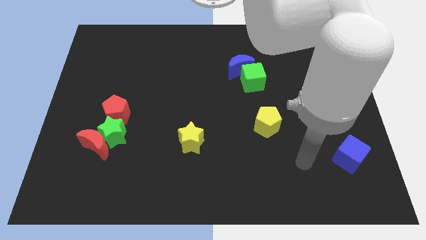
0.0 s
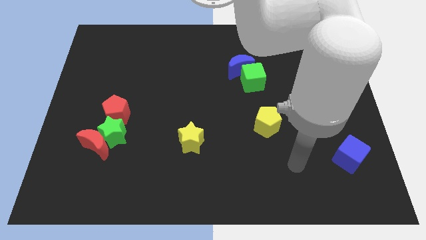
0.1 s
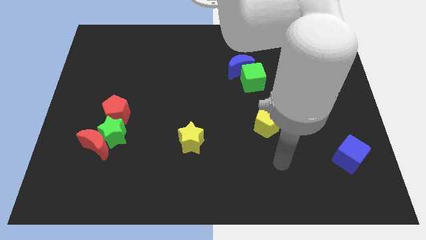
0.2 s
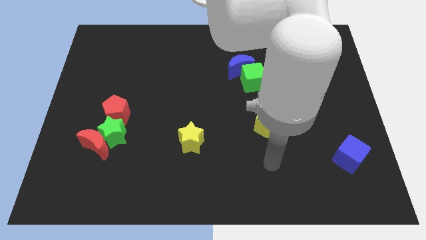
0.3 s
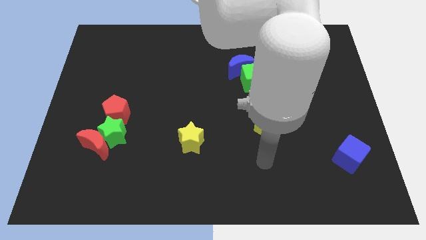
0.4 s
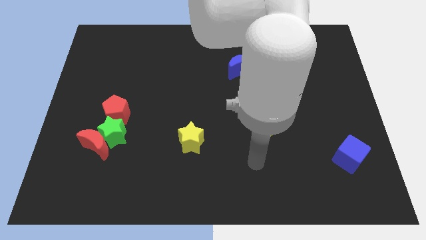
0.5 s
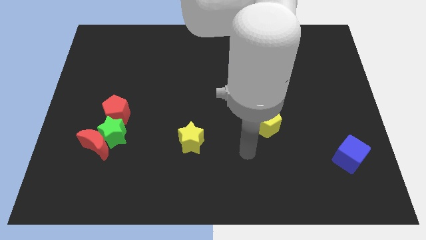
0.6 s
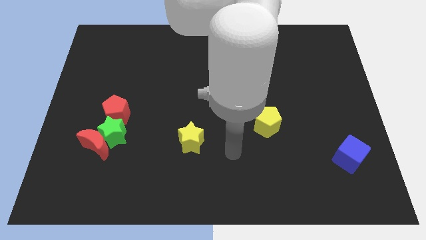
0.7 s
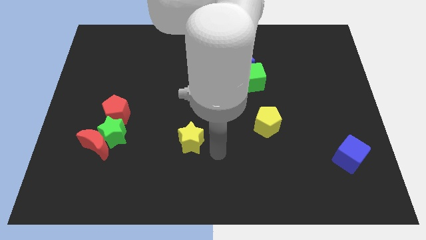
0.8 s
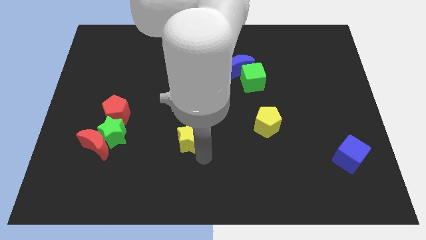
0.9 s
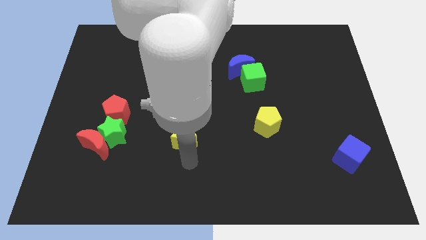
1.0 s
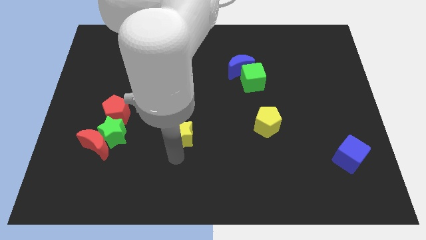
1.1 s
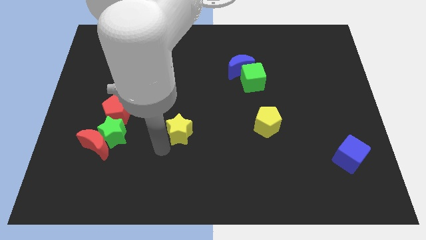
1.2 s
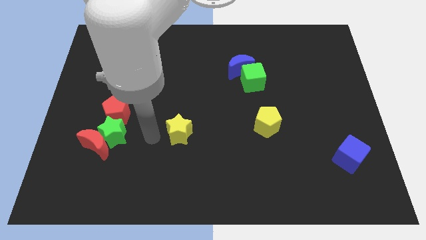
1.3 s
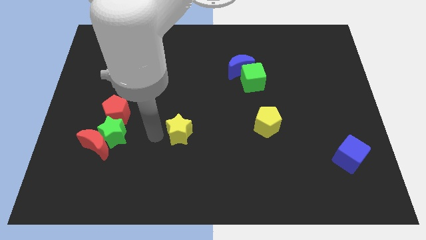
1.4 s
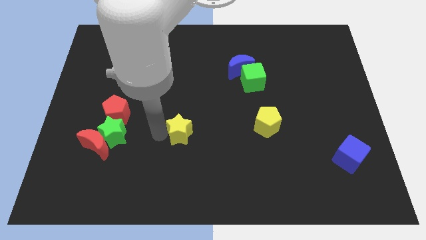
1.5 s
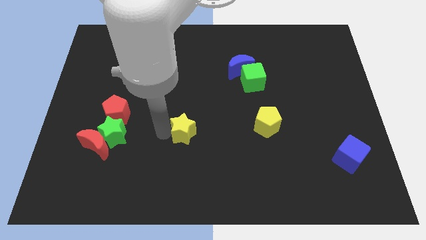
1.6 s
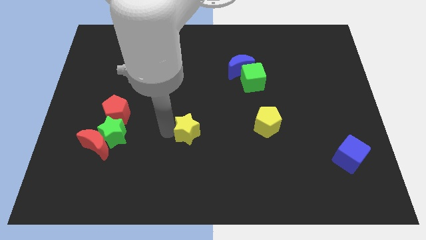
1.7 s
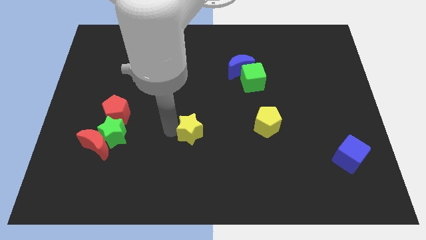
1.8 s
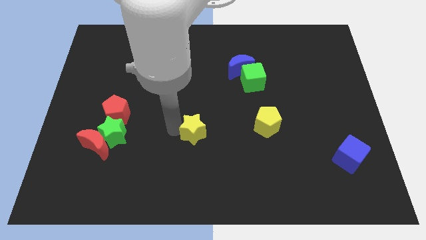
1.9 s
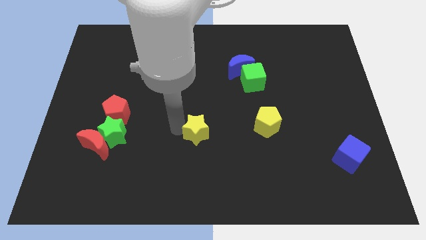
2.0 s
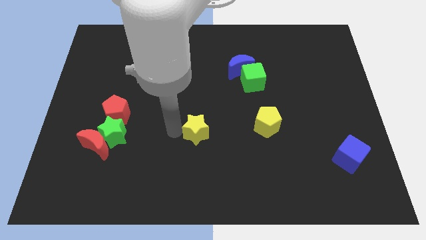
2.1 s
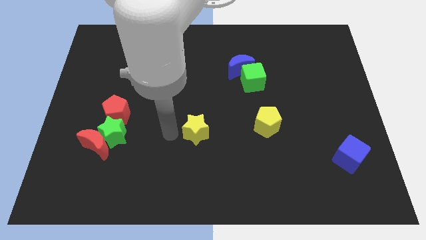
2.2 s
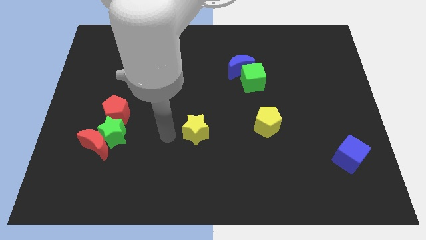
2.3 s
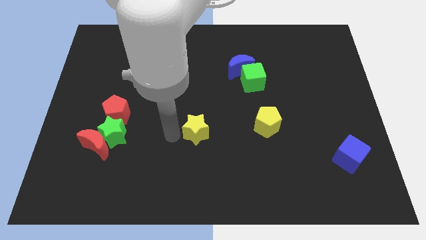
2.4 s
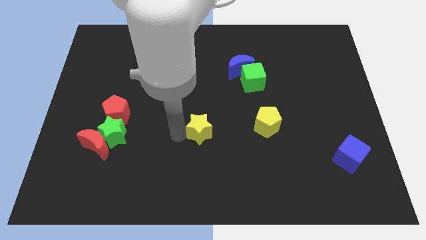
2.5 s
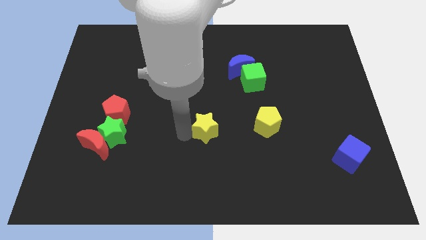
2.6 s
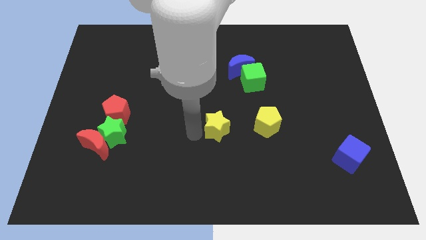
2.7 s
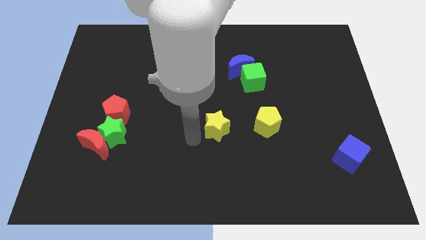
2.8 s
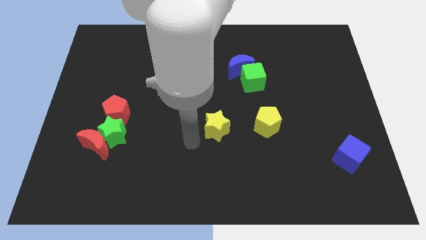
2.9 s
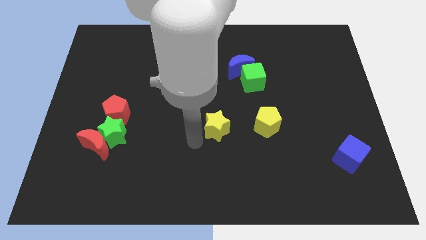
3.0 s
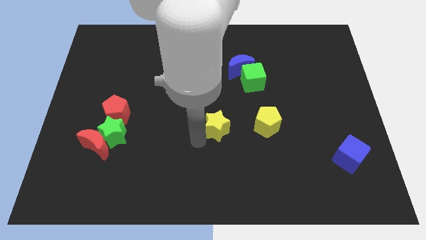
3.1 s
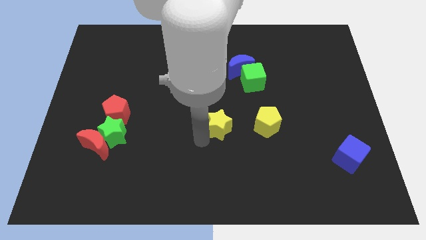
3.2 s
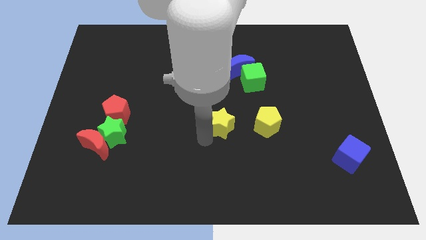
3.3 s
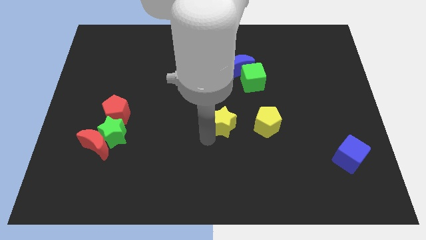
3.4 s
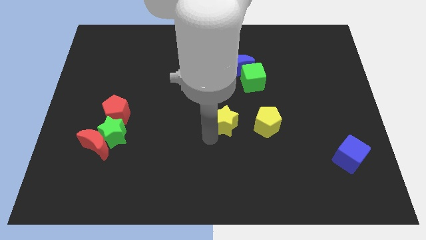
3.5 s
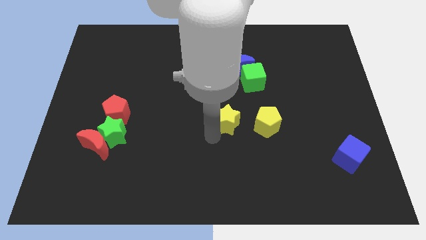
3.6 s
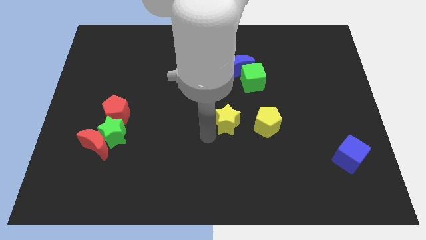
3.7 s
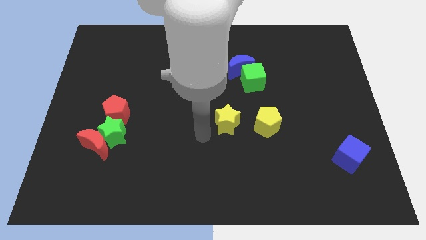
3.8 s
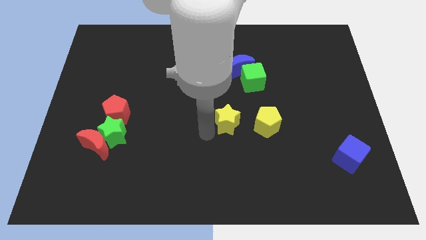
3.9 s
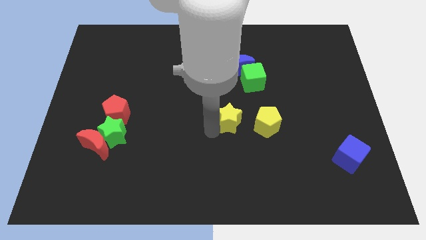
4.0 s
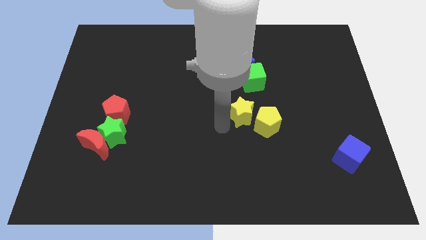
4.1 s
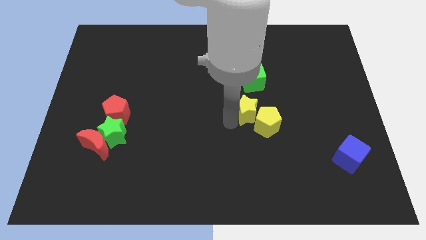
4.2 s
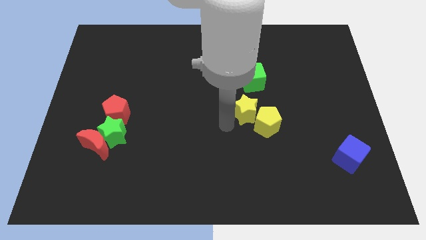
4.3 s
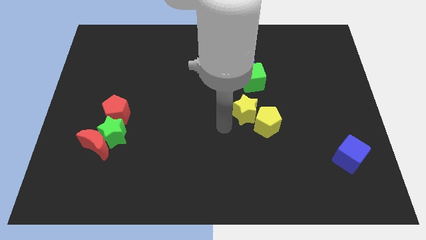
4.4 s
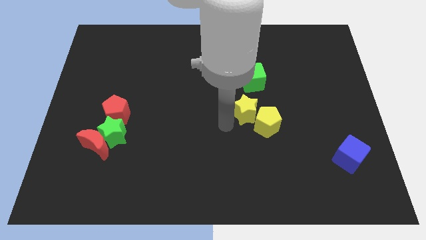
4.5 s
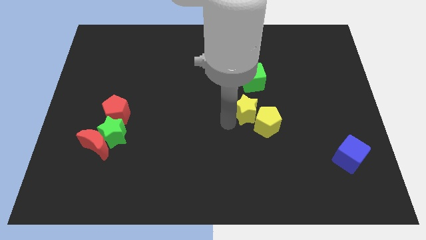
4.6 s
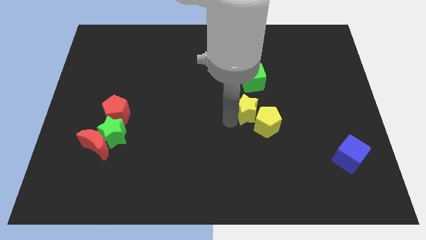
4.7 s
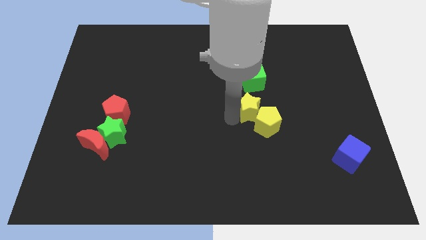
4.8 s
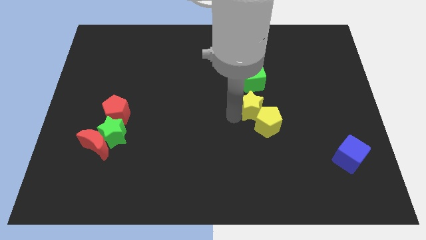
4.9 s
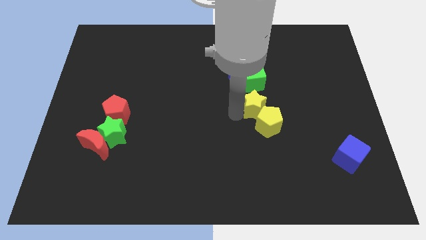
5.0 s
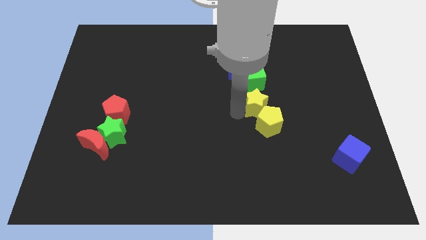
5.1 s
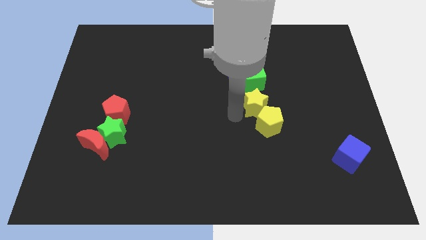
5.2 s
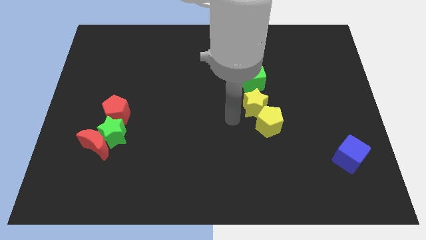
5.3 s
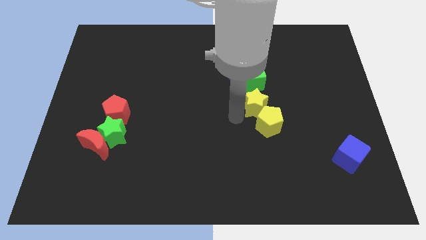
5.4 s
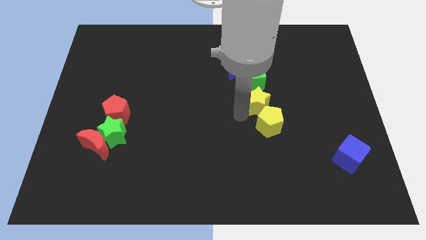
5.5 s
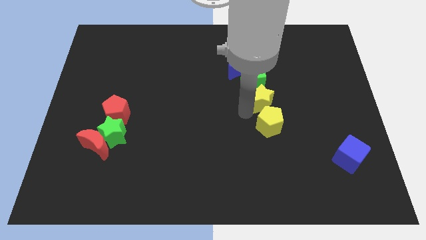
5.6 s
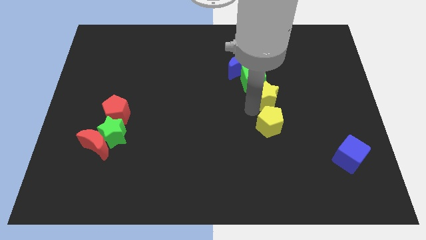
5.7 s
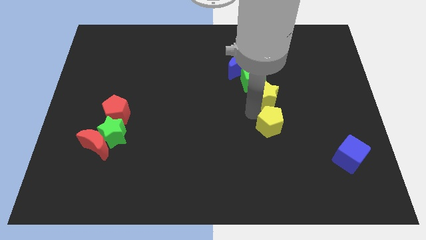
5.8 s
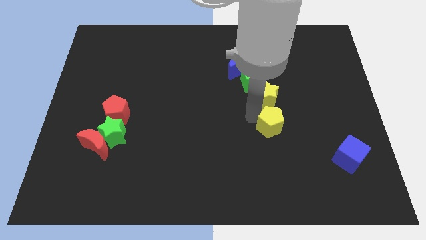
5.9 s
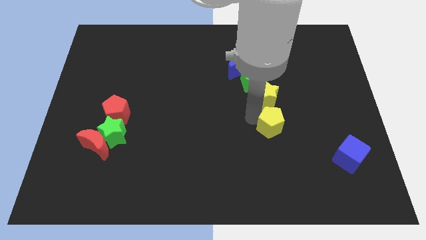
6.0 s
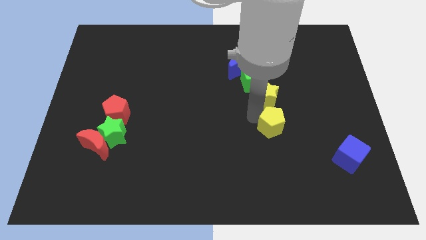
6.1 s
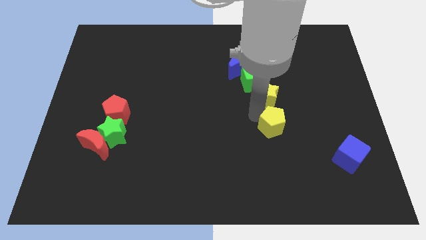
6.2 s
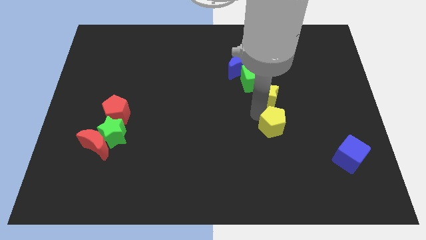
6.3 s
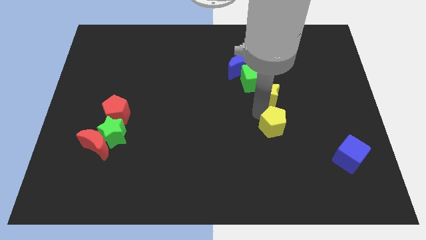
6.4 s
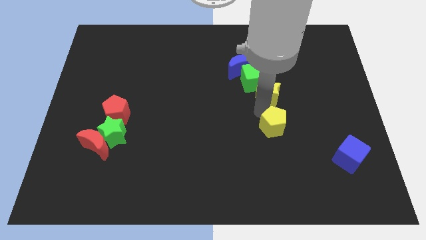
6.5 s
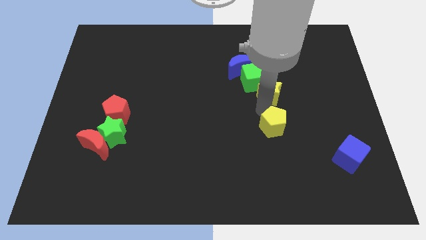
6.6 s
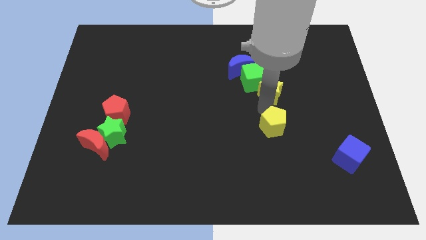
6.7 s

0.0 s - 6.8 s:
slide the yellow star to the right of the green cube
